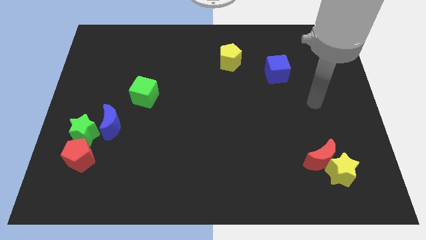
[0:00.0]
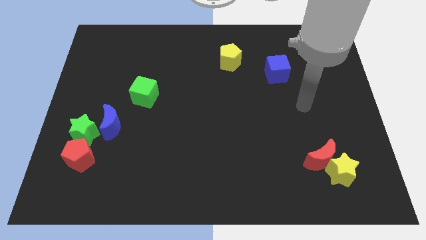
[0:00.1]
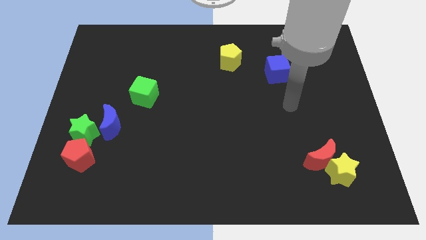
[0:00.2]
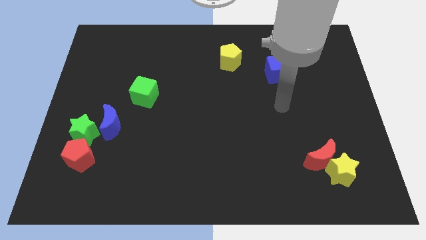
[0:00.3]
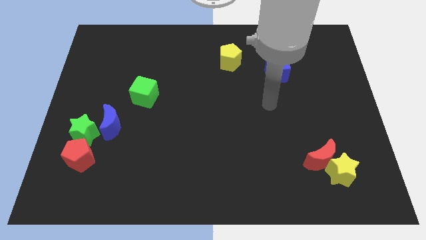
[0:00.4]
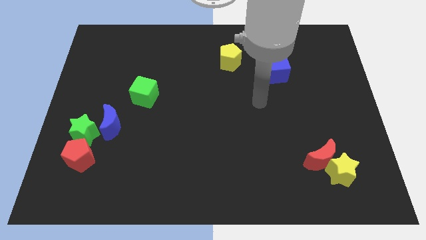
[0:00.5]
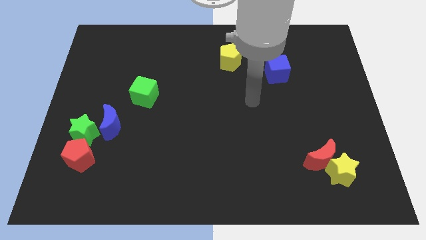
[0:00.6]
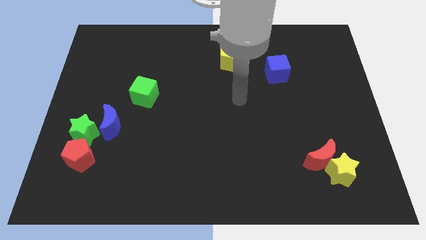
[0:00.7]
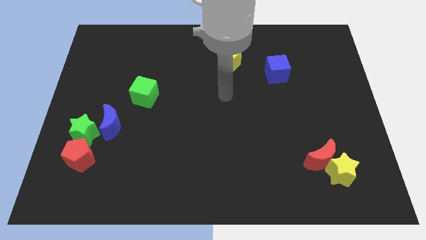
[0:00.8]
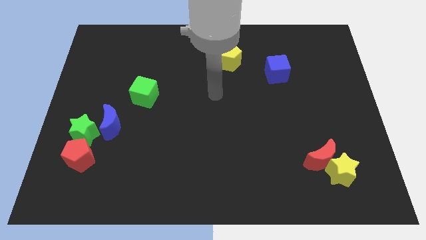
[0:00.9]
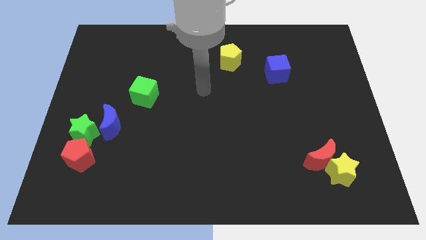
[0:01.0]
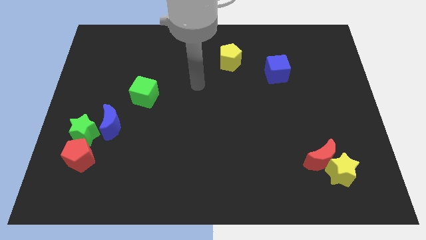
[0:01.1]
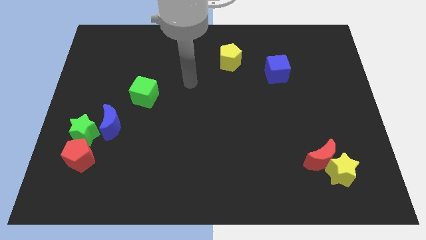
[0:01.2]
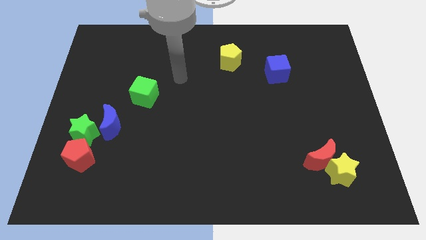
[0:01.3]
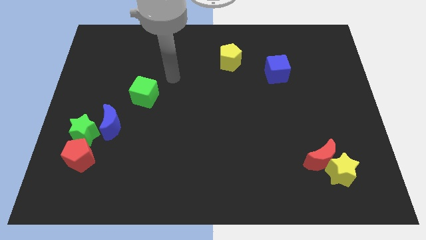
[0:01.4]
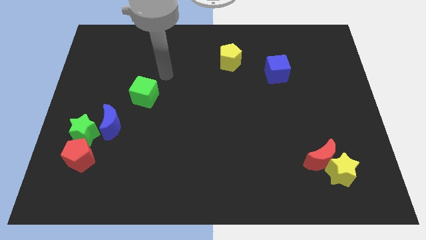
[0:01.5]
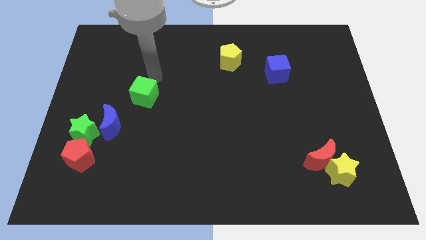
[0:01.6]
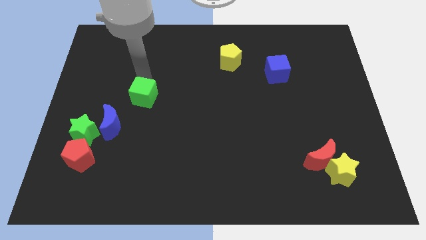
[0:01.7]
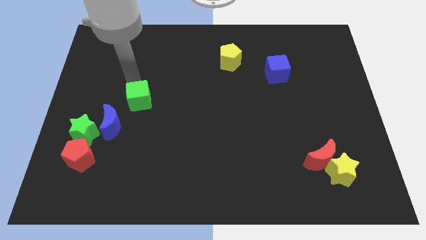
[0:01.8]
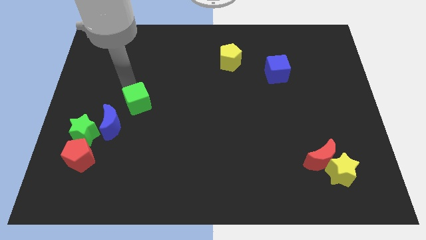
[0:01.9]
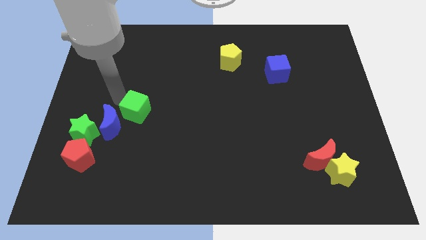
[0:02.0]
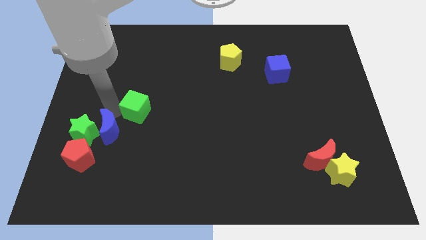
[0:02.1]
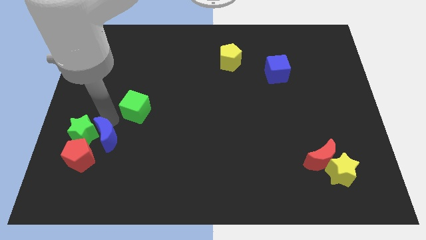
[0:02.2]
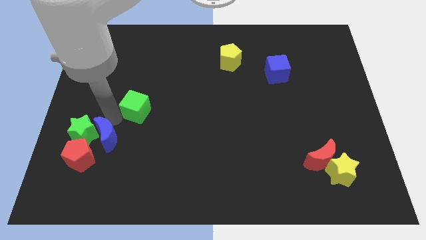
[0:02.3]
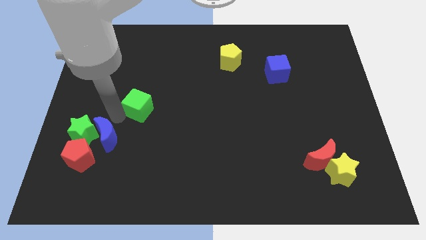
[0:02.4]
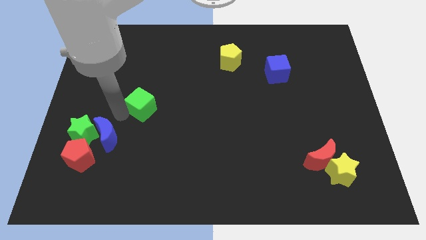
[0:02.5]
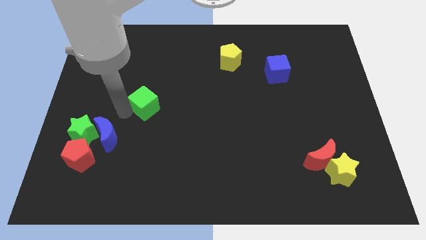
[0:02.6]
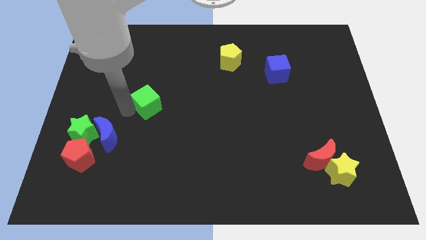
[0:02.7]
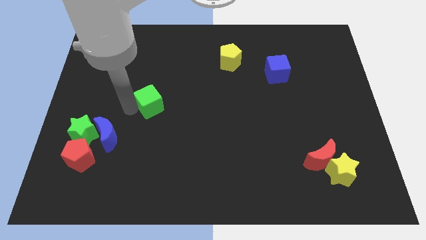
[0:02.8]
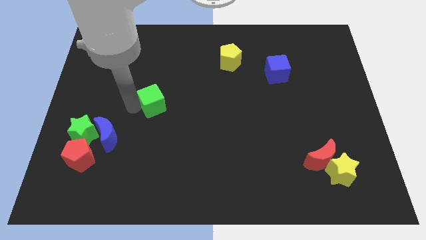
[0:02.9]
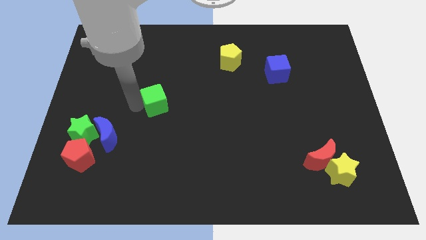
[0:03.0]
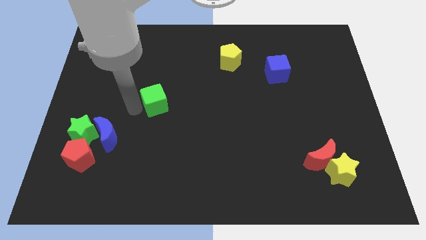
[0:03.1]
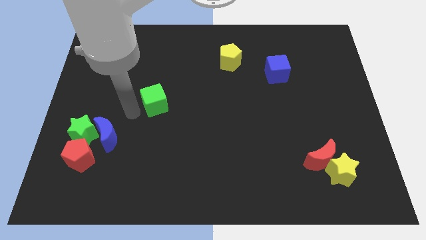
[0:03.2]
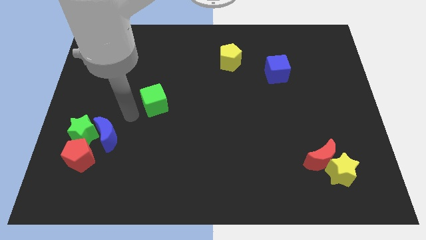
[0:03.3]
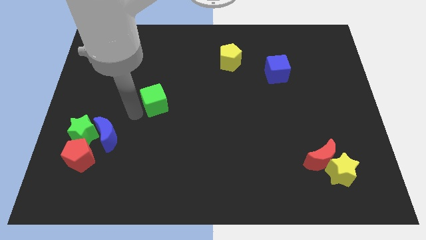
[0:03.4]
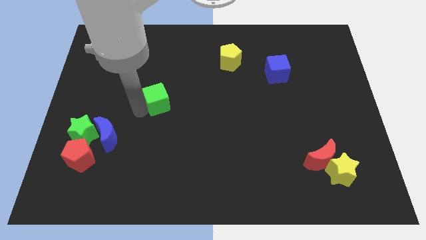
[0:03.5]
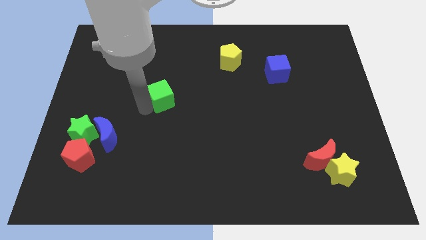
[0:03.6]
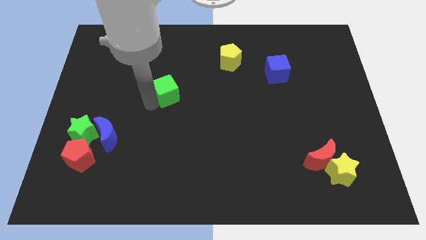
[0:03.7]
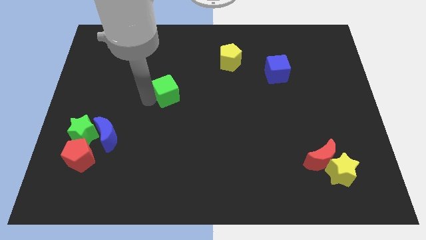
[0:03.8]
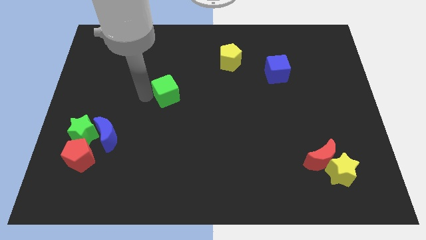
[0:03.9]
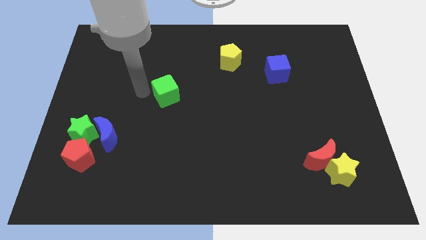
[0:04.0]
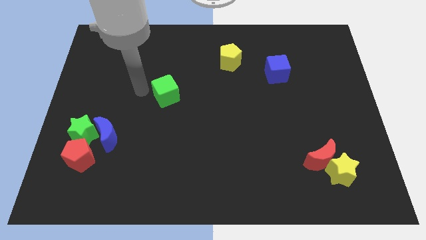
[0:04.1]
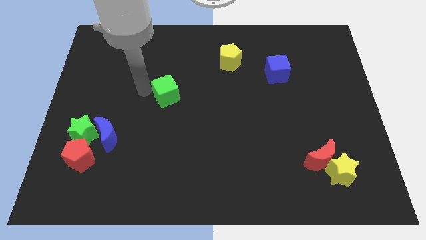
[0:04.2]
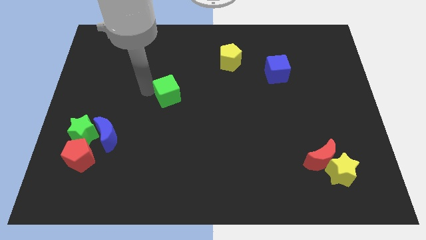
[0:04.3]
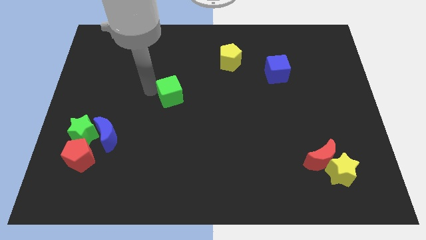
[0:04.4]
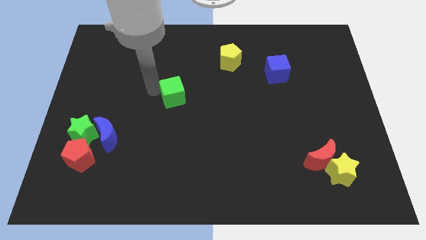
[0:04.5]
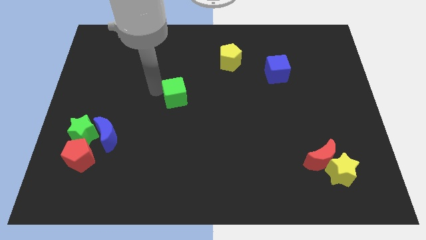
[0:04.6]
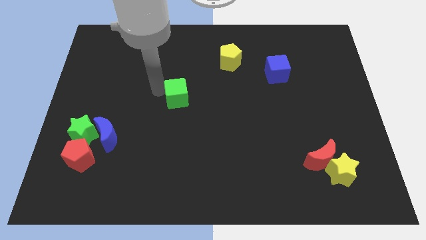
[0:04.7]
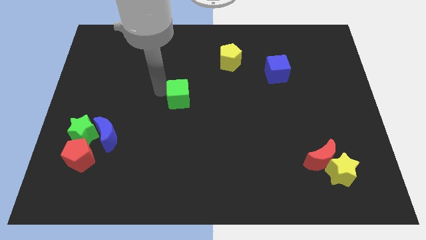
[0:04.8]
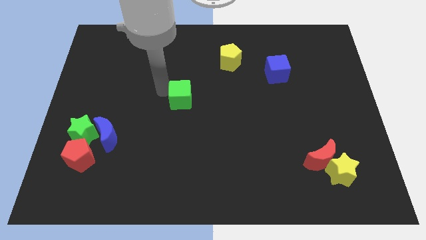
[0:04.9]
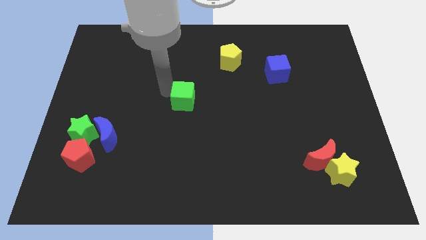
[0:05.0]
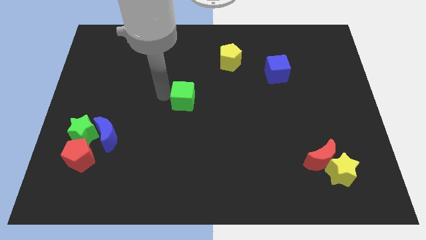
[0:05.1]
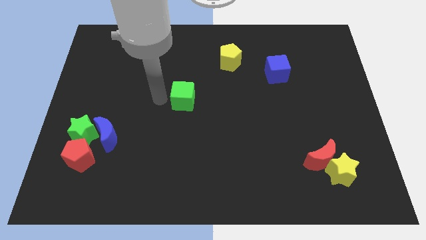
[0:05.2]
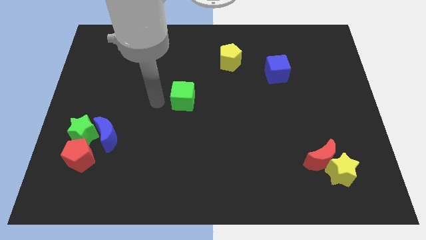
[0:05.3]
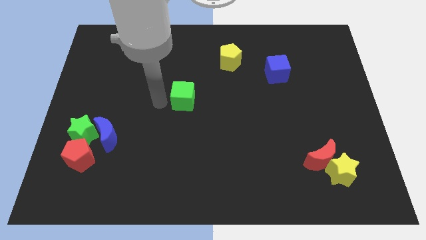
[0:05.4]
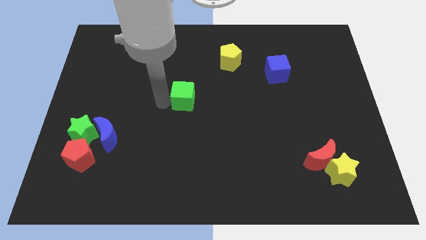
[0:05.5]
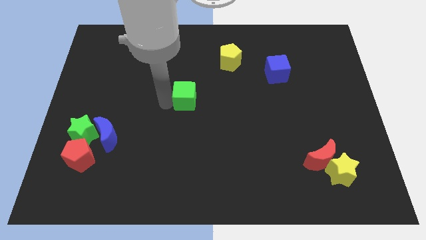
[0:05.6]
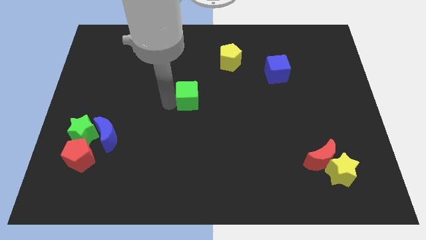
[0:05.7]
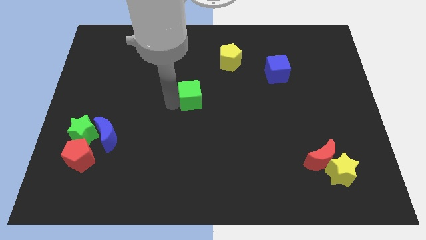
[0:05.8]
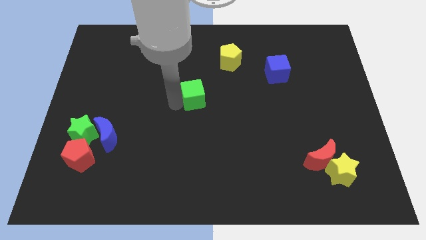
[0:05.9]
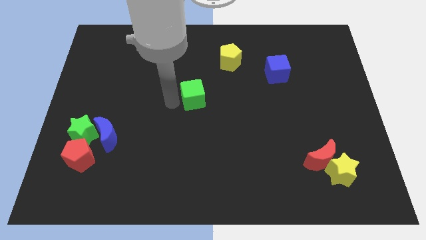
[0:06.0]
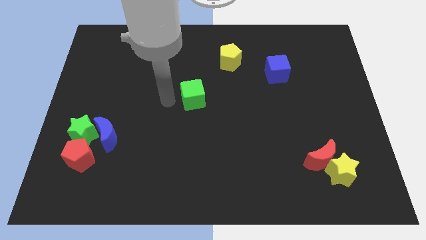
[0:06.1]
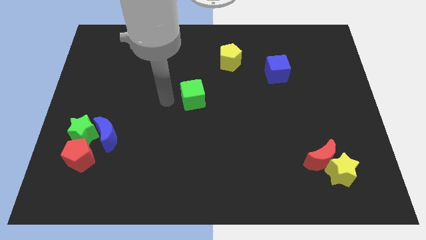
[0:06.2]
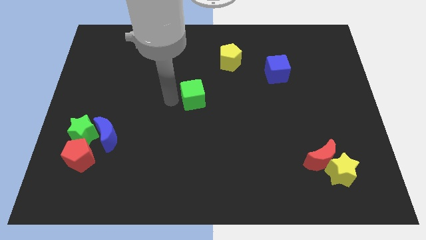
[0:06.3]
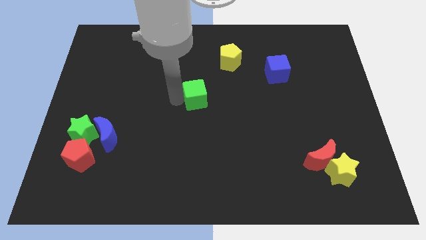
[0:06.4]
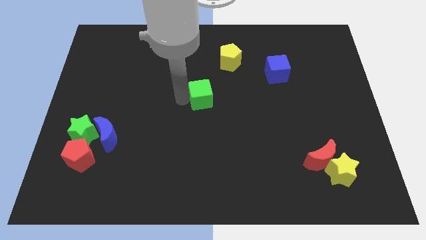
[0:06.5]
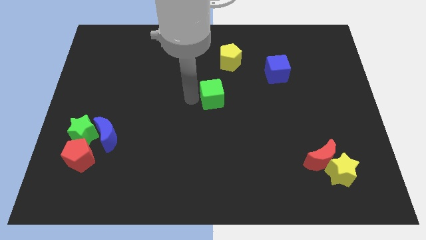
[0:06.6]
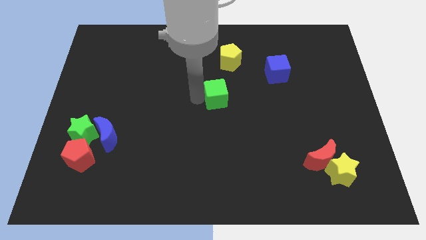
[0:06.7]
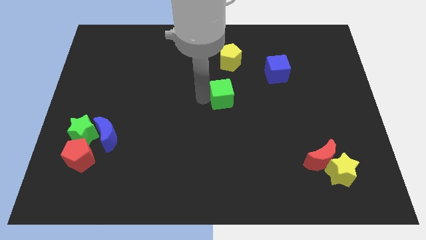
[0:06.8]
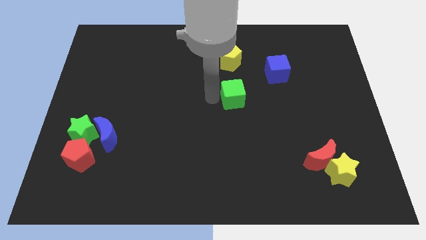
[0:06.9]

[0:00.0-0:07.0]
slide the green cube right

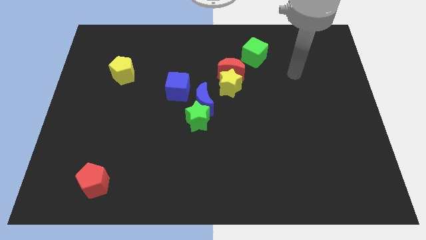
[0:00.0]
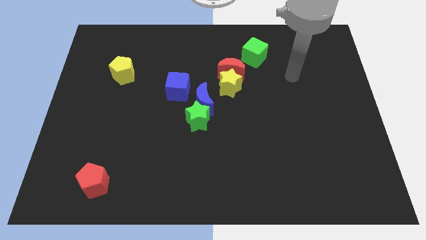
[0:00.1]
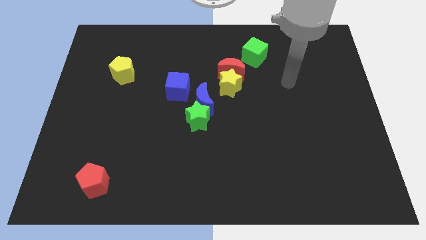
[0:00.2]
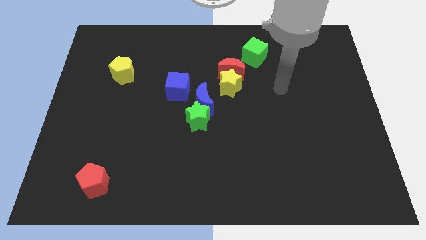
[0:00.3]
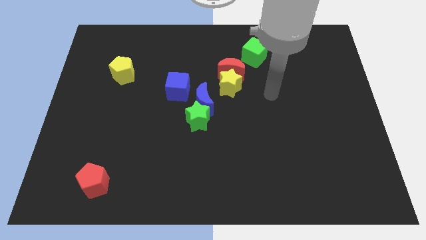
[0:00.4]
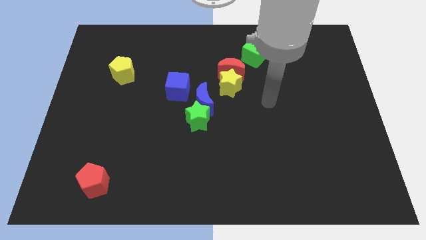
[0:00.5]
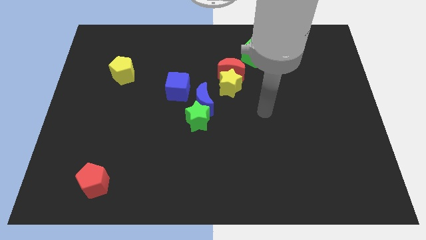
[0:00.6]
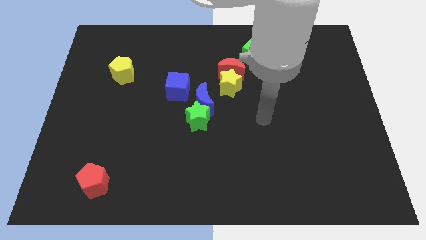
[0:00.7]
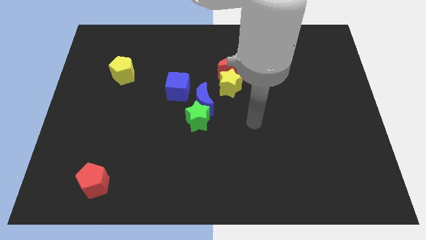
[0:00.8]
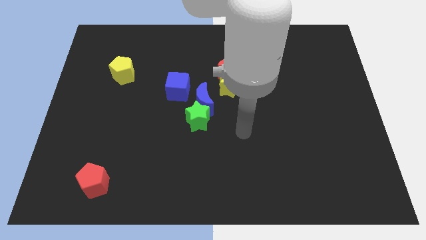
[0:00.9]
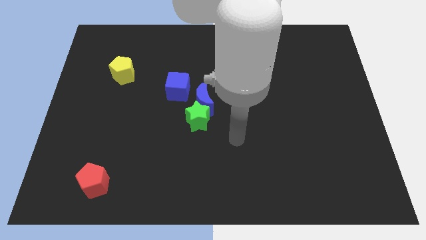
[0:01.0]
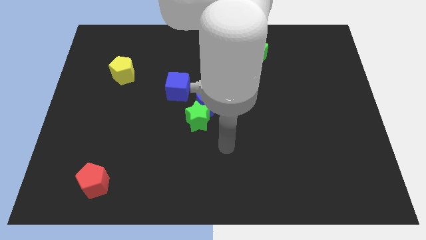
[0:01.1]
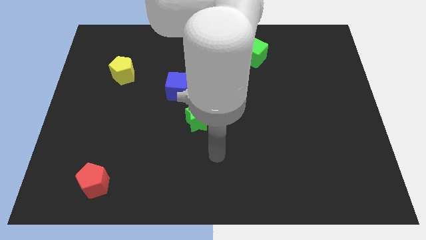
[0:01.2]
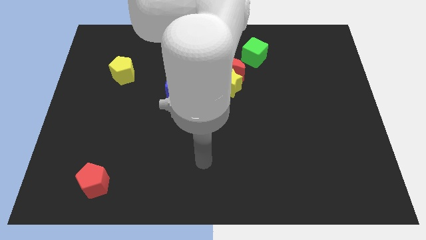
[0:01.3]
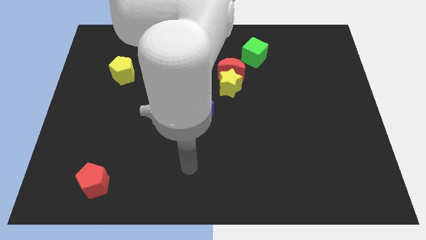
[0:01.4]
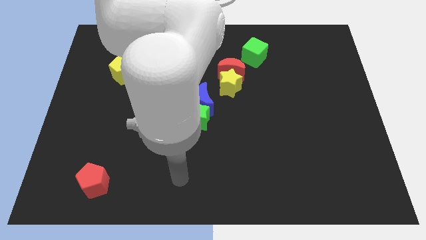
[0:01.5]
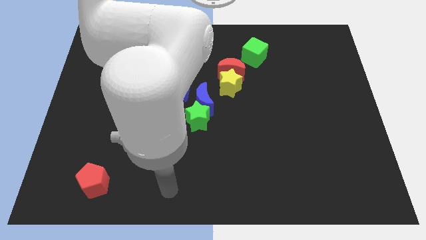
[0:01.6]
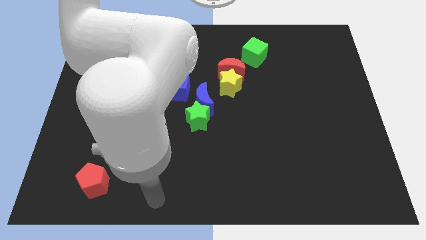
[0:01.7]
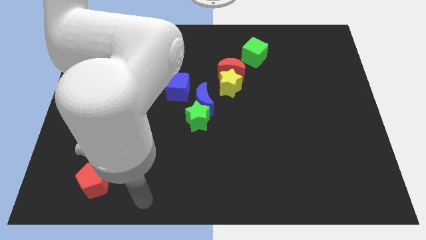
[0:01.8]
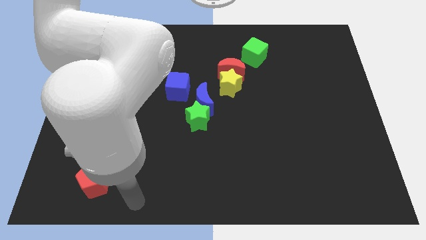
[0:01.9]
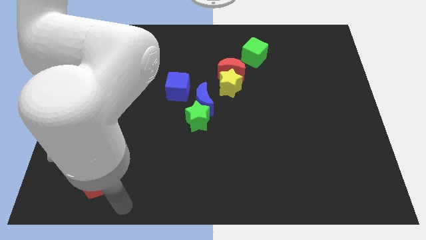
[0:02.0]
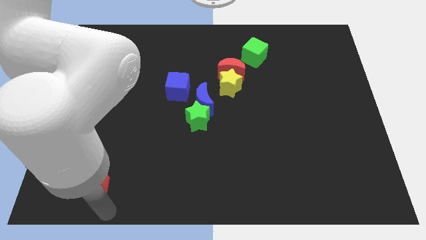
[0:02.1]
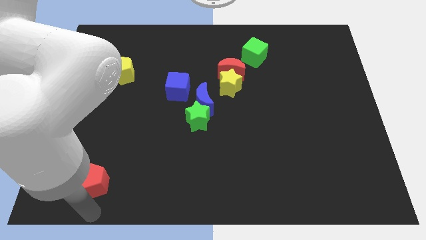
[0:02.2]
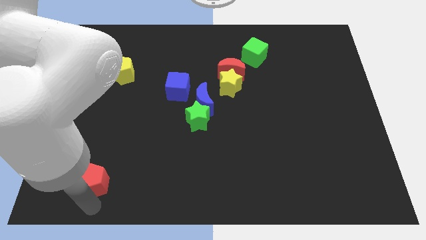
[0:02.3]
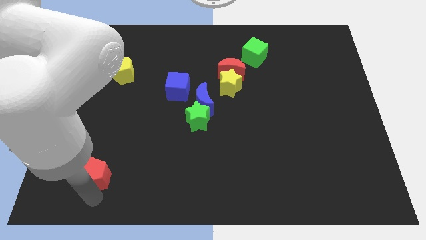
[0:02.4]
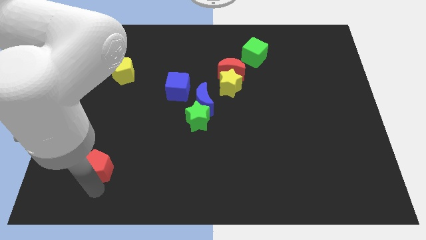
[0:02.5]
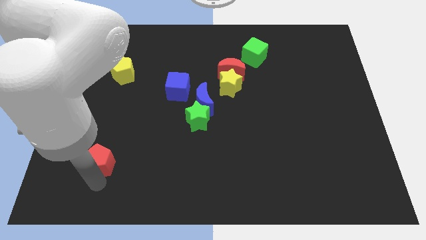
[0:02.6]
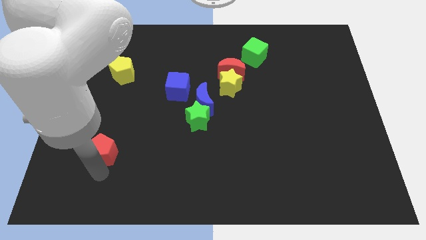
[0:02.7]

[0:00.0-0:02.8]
slide the red pentagon slightly upwards
